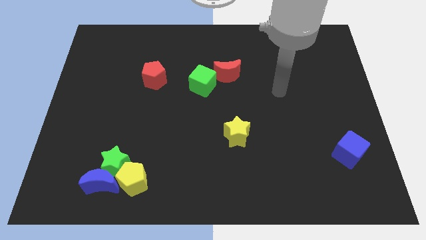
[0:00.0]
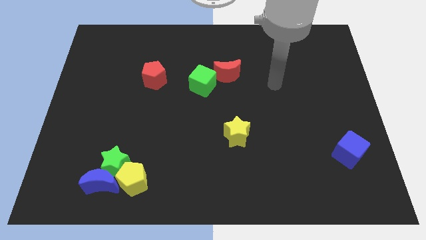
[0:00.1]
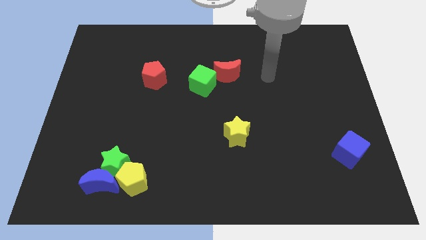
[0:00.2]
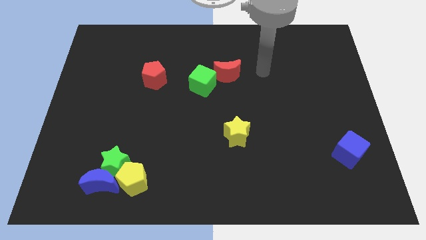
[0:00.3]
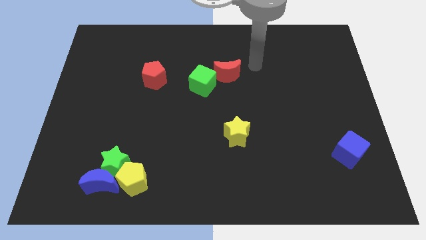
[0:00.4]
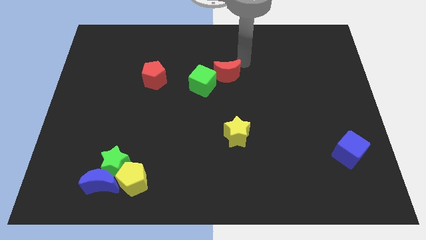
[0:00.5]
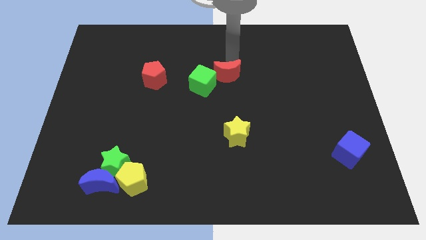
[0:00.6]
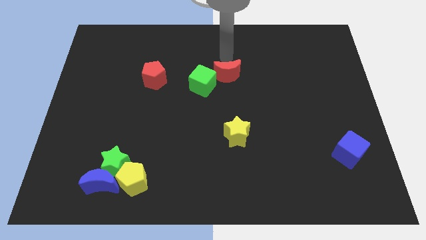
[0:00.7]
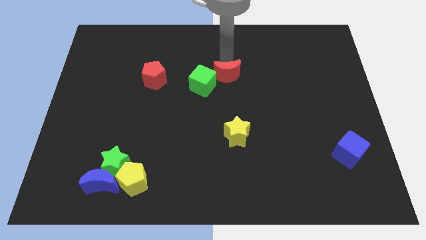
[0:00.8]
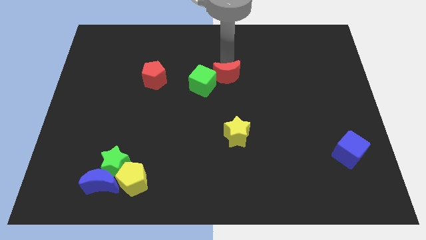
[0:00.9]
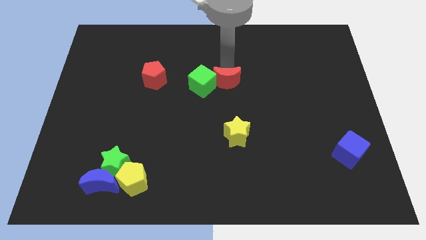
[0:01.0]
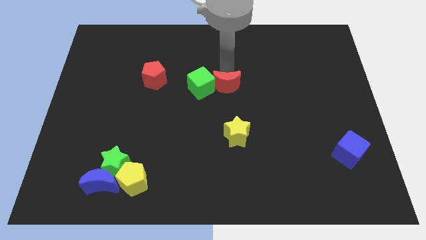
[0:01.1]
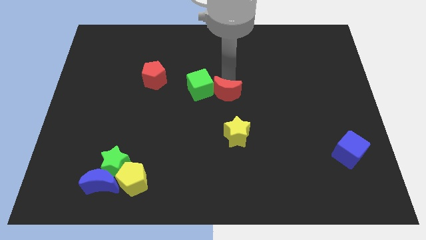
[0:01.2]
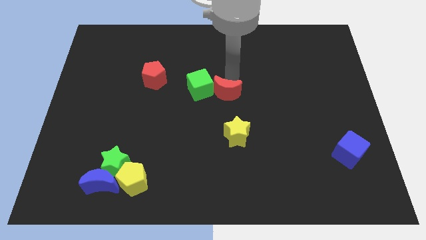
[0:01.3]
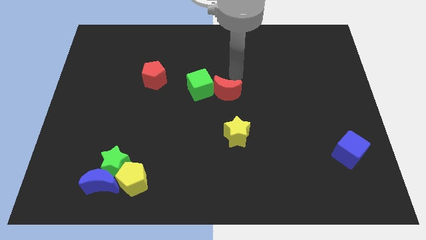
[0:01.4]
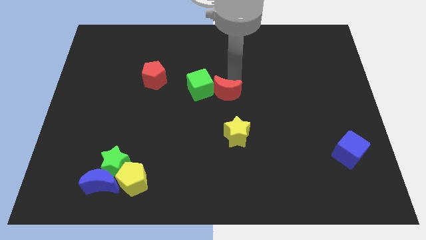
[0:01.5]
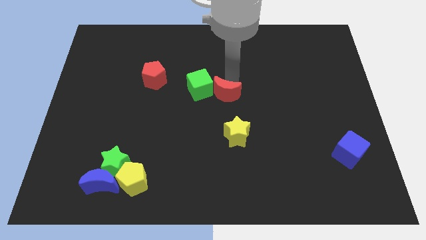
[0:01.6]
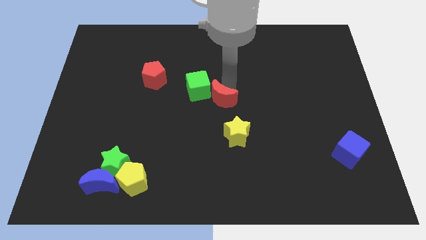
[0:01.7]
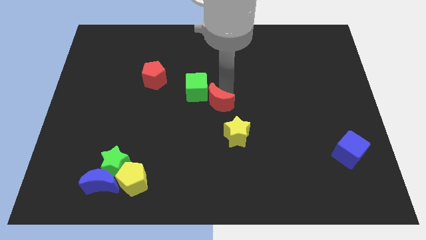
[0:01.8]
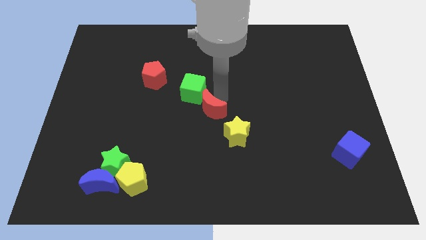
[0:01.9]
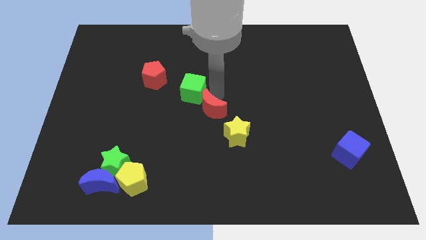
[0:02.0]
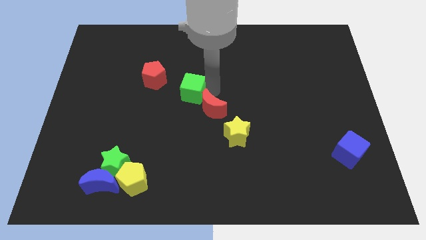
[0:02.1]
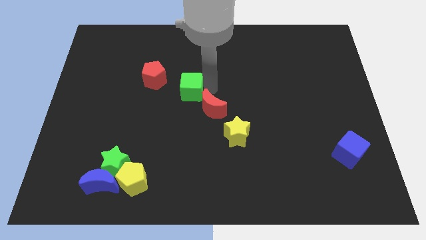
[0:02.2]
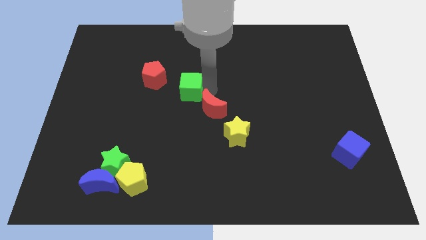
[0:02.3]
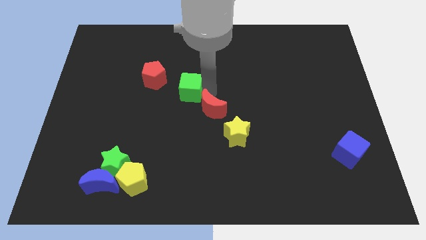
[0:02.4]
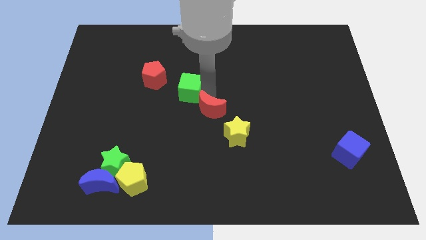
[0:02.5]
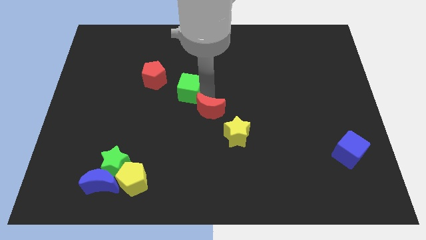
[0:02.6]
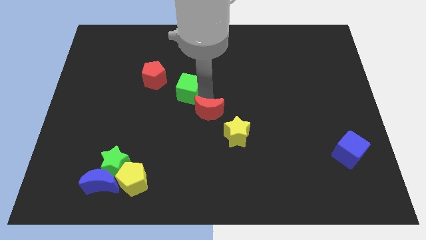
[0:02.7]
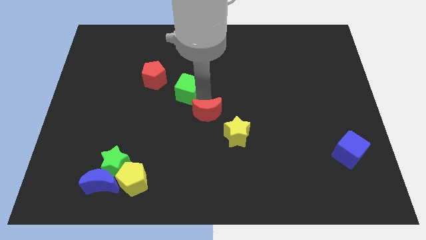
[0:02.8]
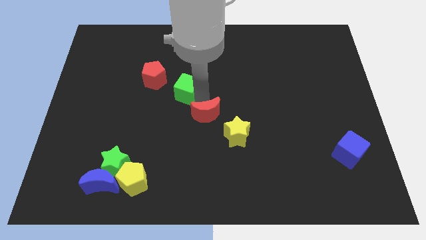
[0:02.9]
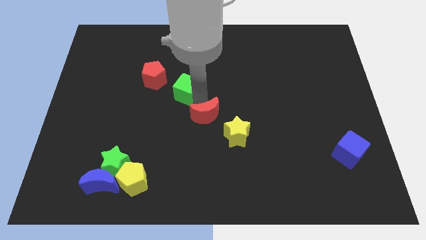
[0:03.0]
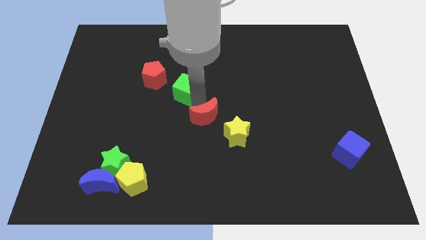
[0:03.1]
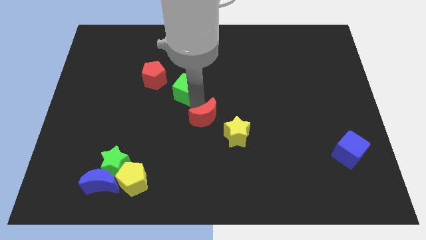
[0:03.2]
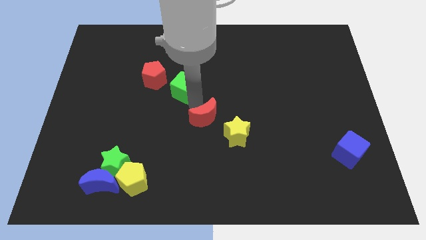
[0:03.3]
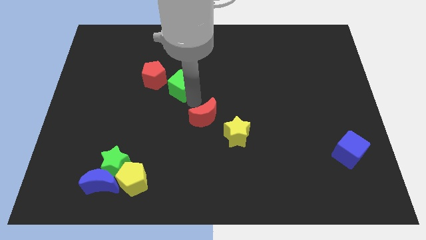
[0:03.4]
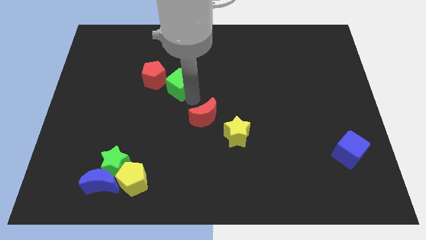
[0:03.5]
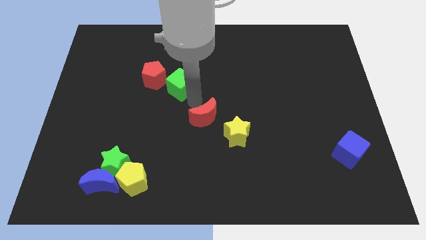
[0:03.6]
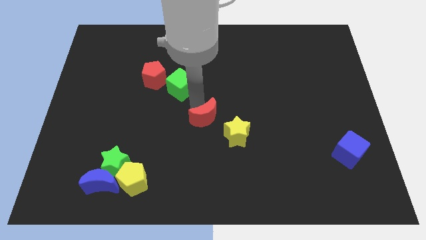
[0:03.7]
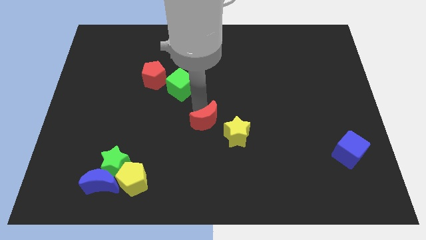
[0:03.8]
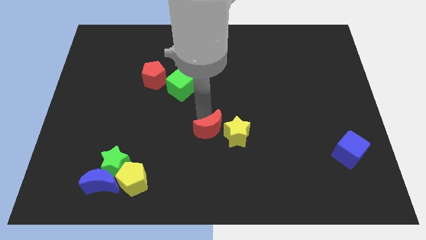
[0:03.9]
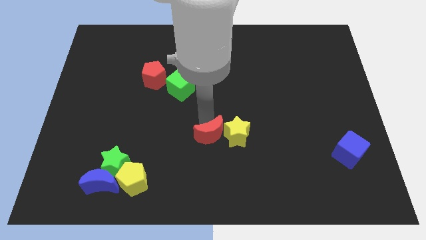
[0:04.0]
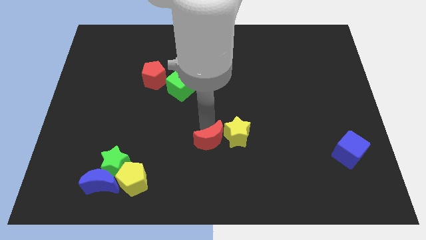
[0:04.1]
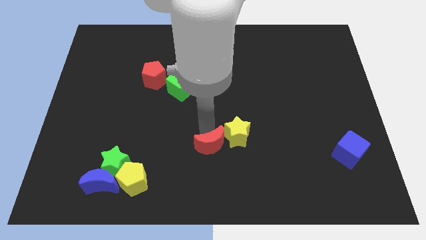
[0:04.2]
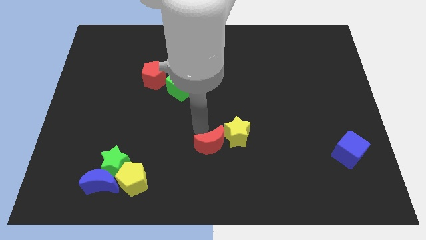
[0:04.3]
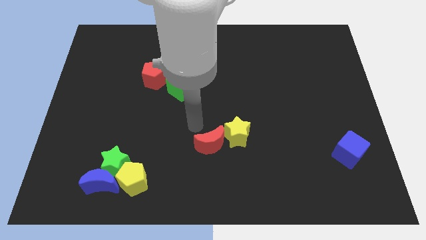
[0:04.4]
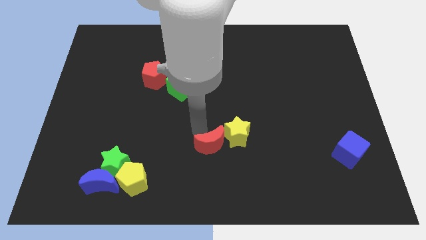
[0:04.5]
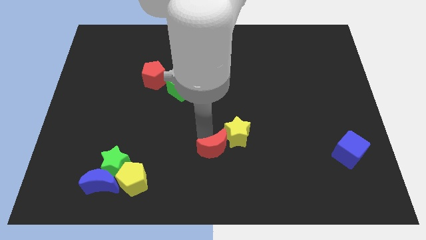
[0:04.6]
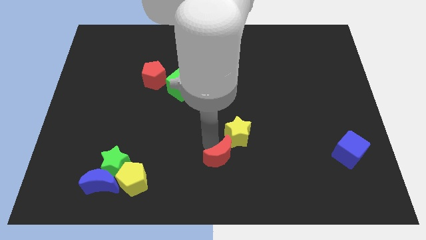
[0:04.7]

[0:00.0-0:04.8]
move the red moon to the bottom of the yellow star

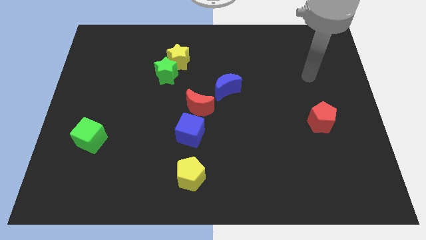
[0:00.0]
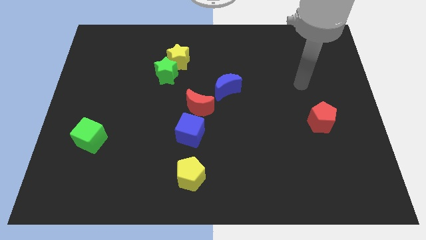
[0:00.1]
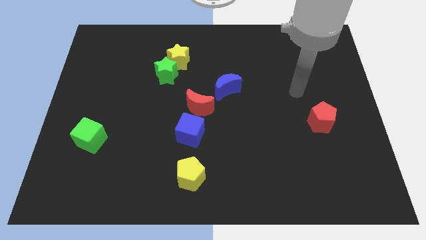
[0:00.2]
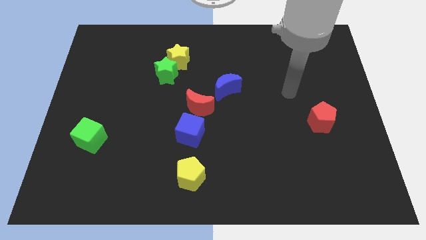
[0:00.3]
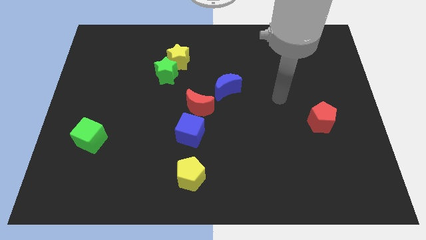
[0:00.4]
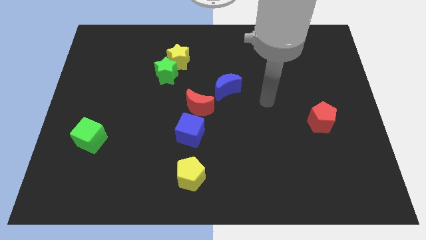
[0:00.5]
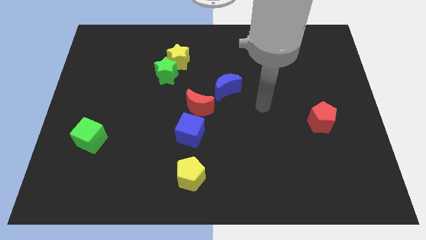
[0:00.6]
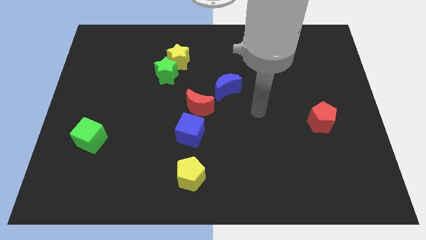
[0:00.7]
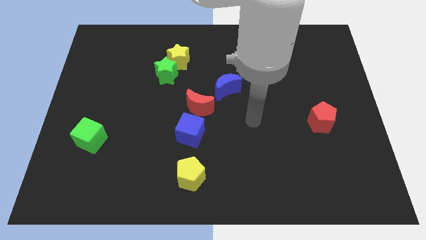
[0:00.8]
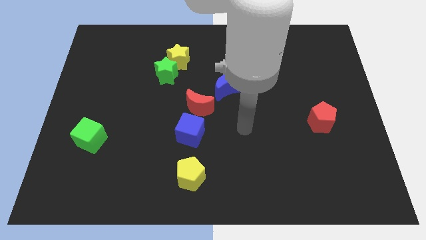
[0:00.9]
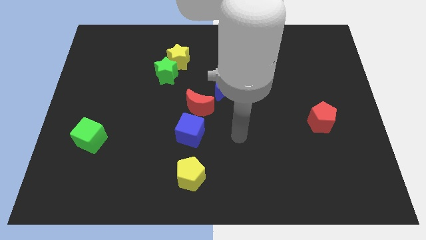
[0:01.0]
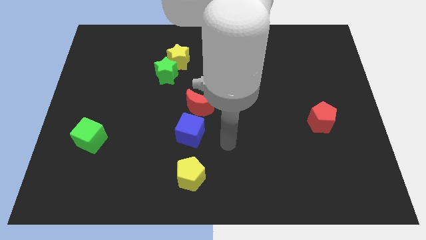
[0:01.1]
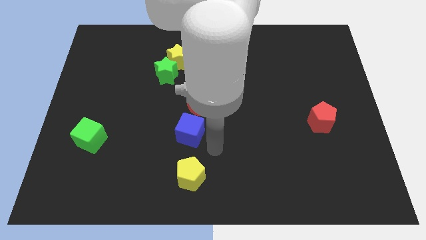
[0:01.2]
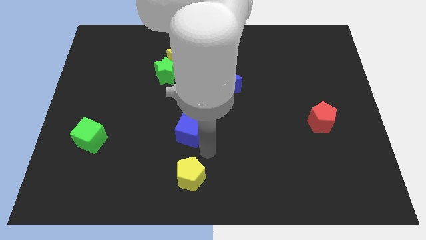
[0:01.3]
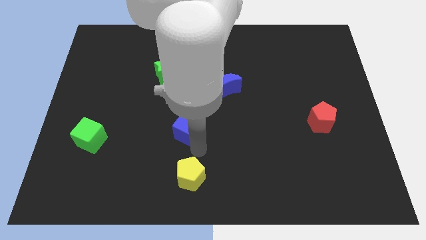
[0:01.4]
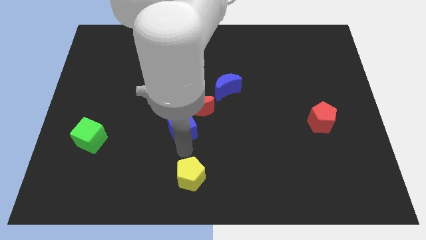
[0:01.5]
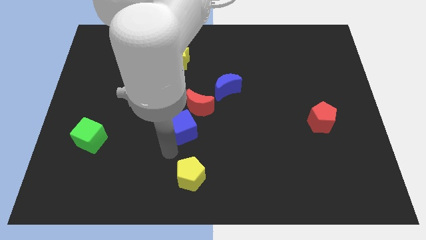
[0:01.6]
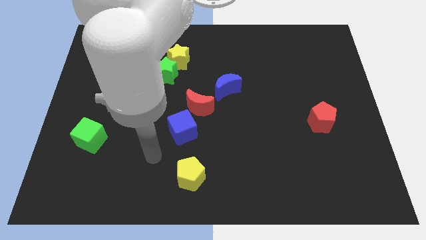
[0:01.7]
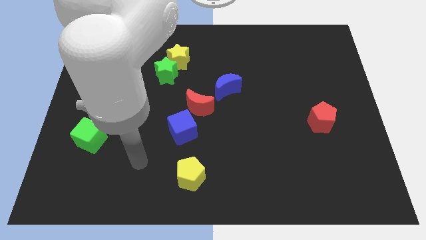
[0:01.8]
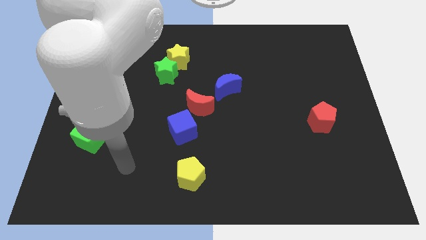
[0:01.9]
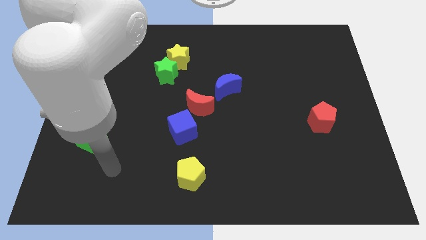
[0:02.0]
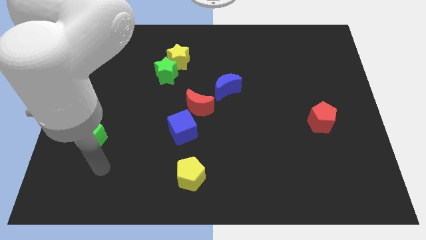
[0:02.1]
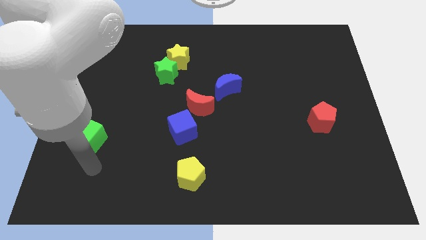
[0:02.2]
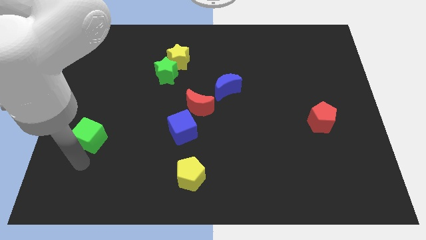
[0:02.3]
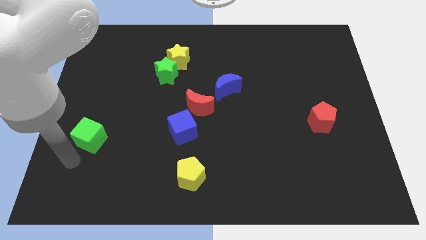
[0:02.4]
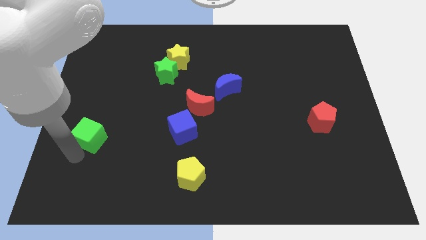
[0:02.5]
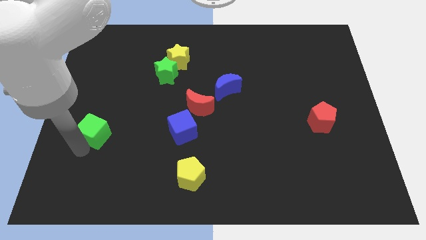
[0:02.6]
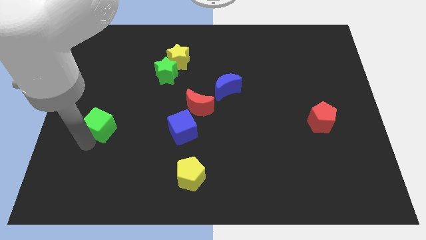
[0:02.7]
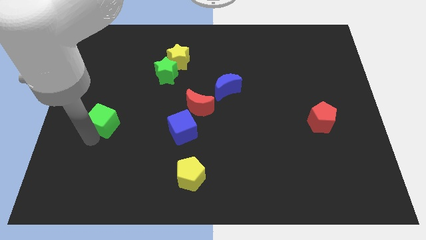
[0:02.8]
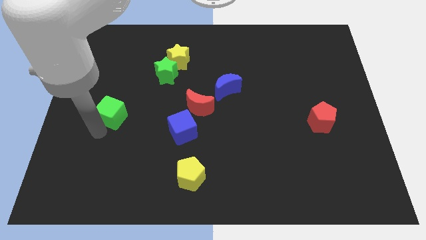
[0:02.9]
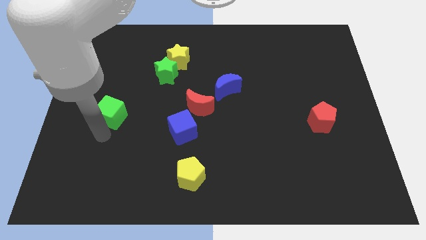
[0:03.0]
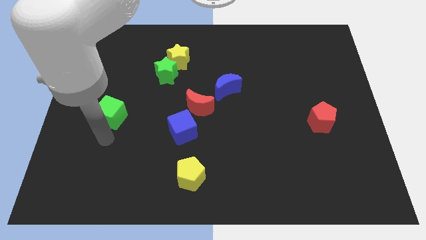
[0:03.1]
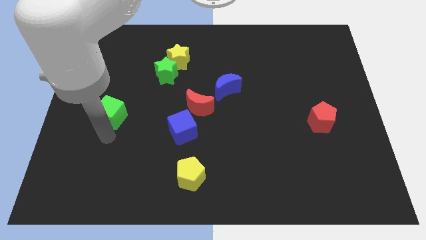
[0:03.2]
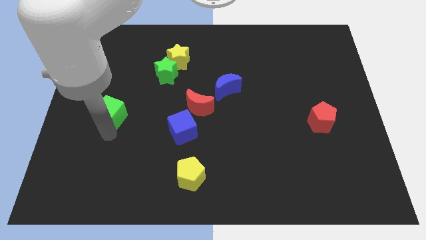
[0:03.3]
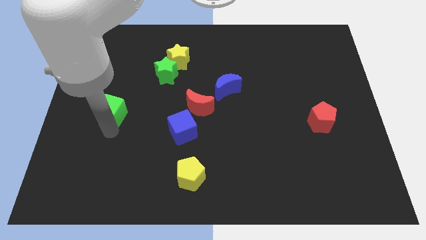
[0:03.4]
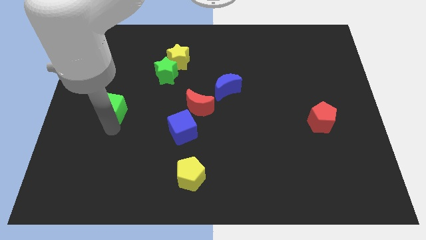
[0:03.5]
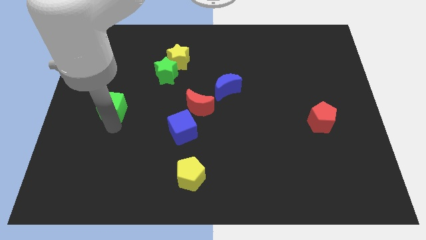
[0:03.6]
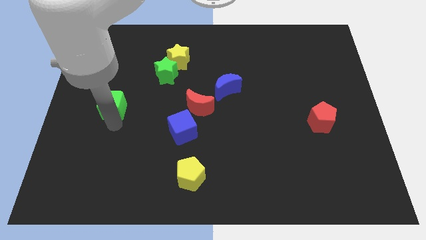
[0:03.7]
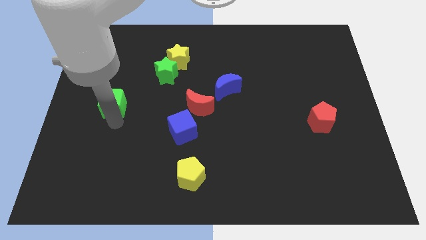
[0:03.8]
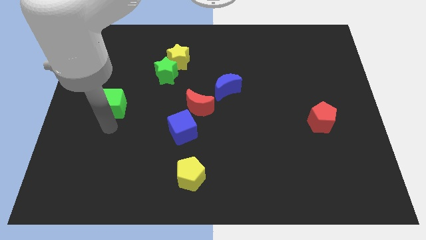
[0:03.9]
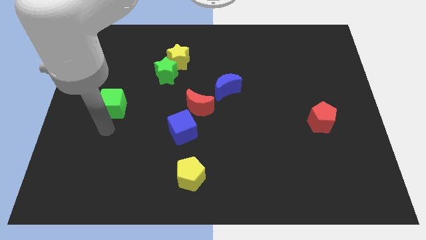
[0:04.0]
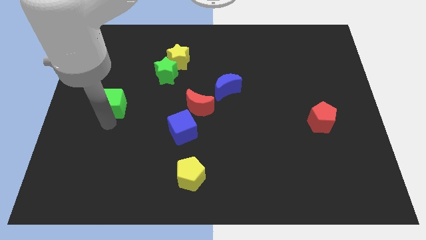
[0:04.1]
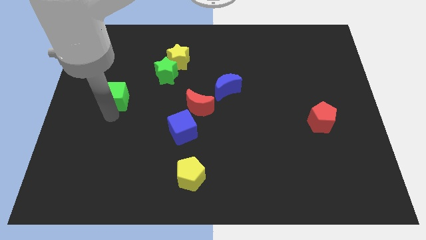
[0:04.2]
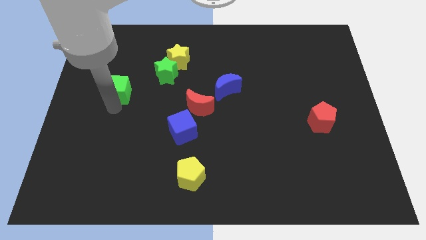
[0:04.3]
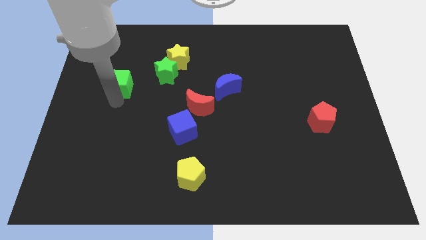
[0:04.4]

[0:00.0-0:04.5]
move the green cube to the left side of the green star
